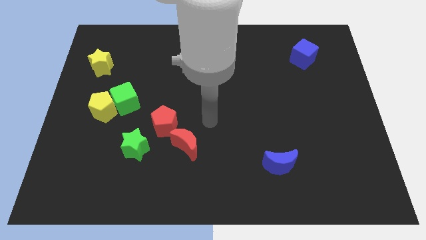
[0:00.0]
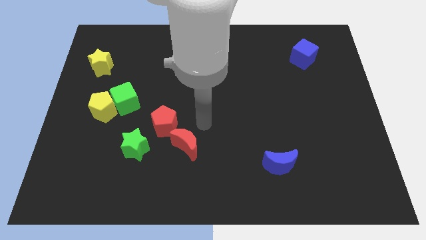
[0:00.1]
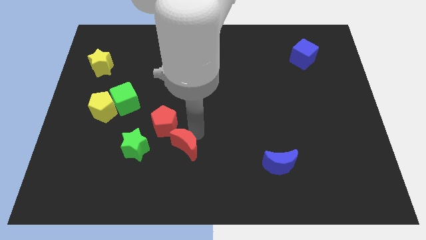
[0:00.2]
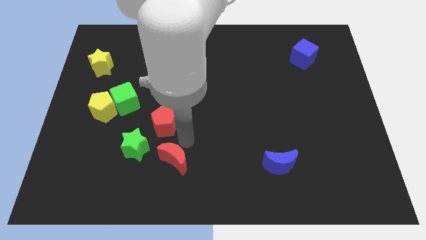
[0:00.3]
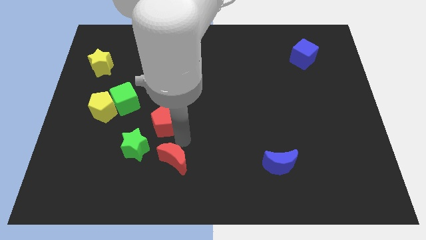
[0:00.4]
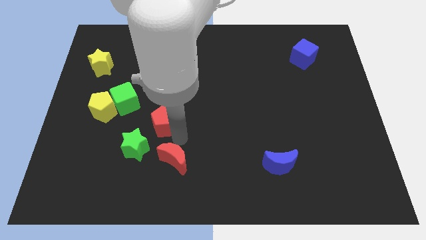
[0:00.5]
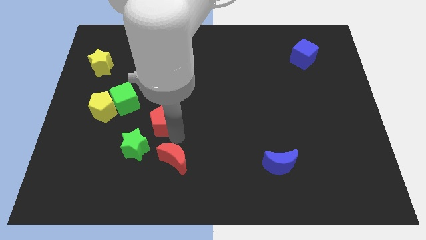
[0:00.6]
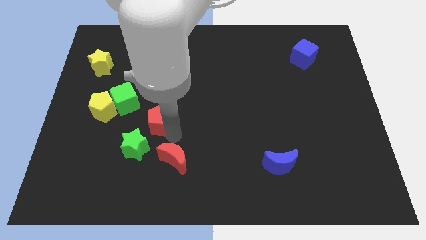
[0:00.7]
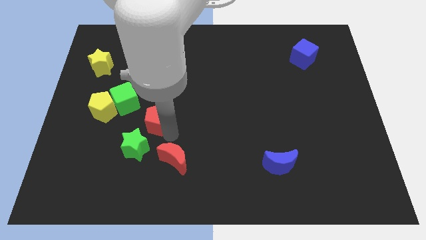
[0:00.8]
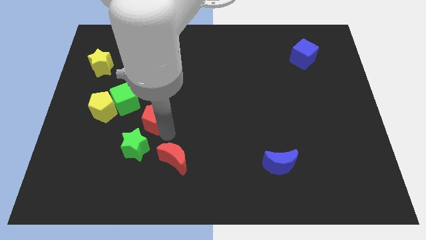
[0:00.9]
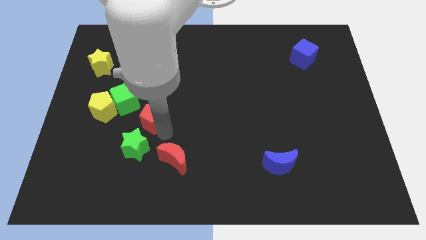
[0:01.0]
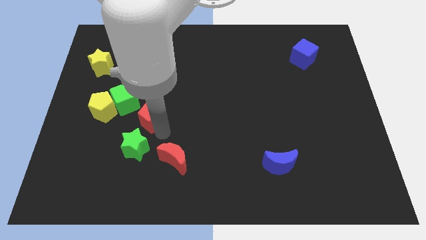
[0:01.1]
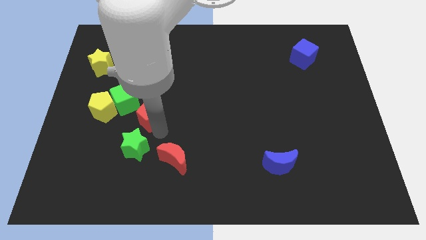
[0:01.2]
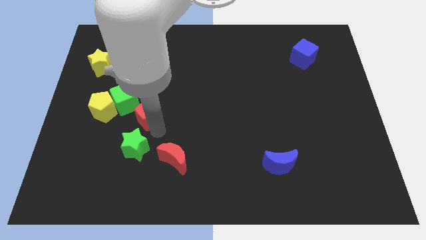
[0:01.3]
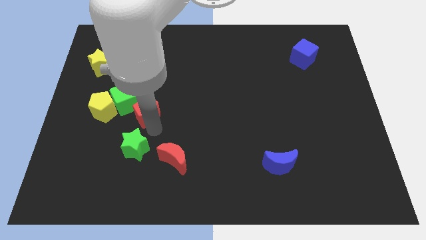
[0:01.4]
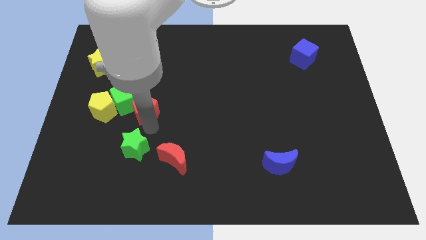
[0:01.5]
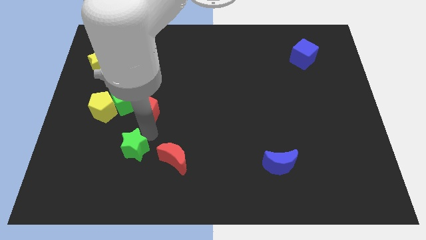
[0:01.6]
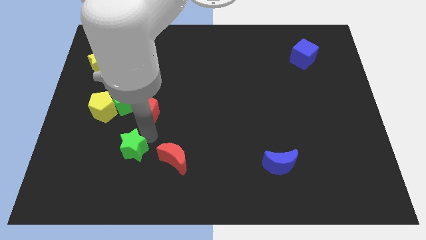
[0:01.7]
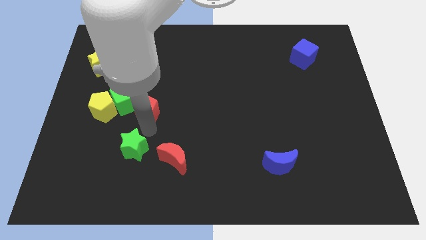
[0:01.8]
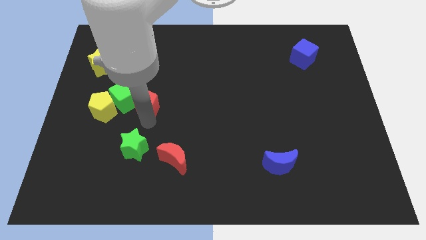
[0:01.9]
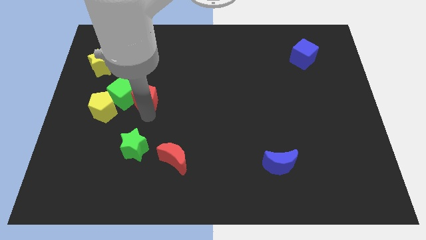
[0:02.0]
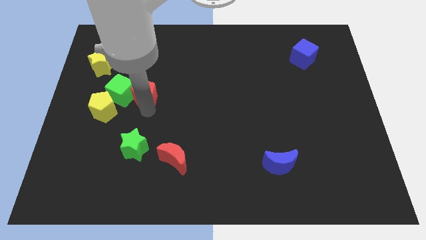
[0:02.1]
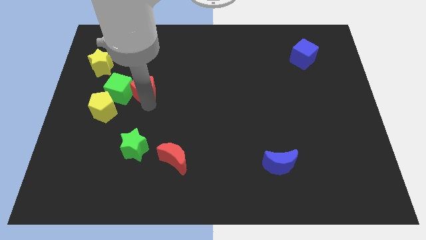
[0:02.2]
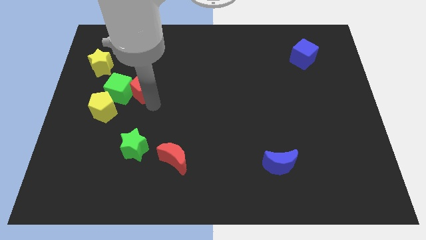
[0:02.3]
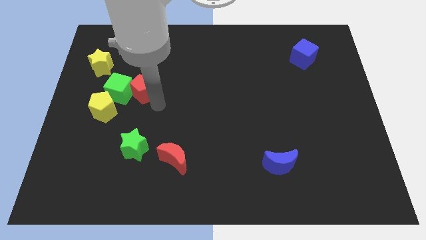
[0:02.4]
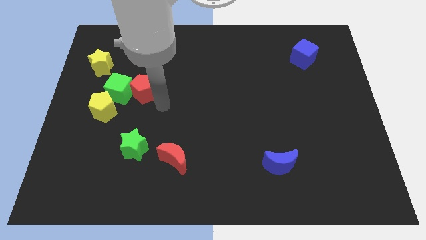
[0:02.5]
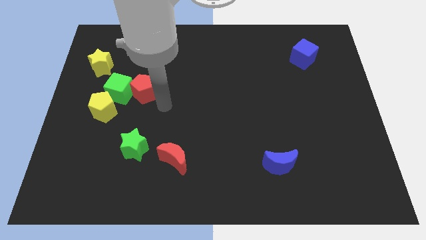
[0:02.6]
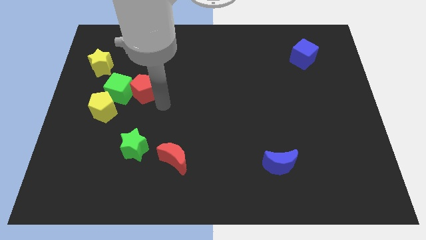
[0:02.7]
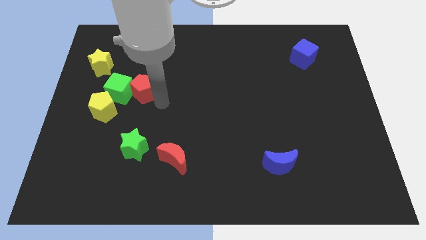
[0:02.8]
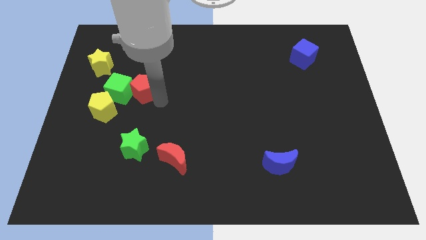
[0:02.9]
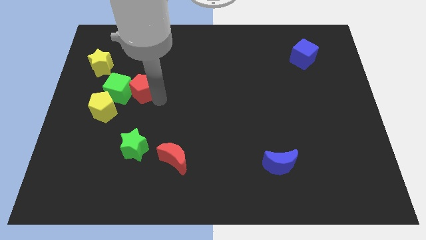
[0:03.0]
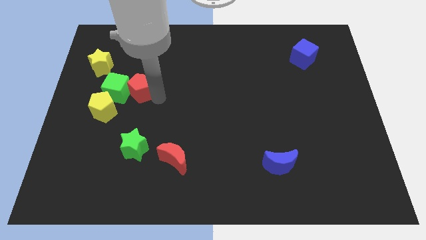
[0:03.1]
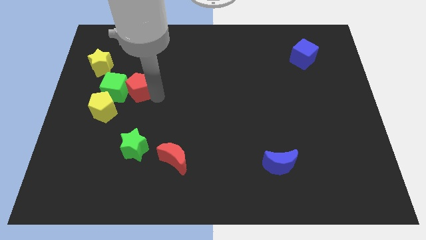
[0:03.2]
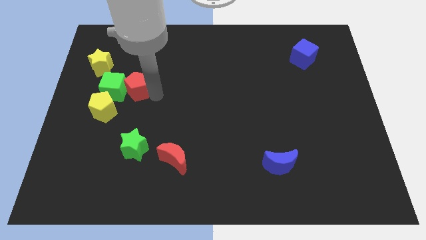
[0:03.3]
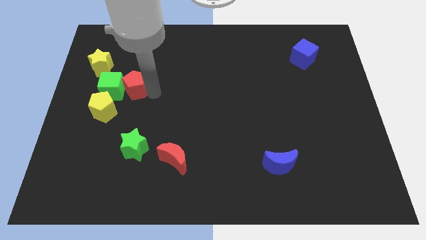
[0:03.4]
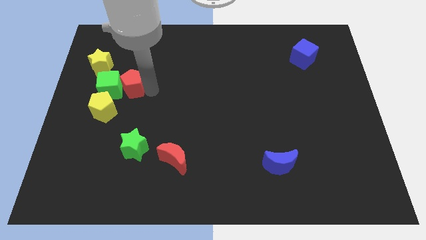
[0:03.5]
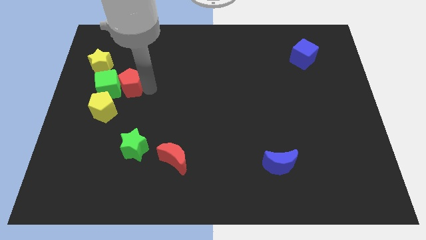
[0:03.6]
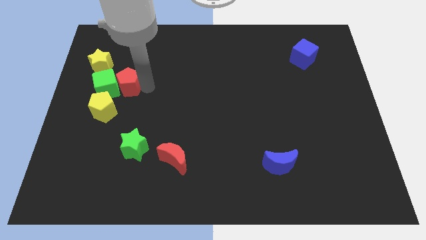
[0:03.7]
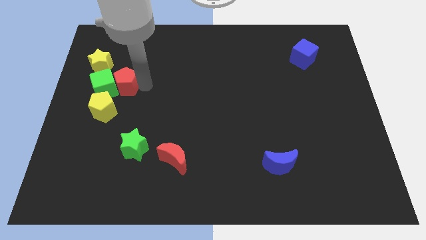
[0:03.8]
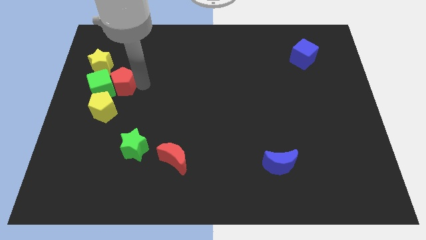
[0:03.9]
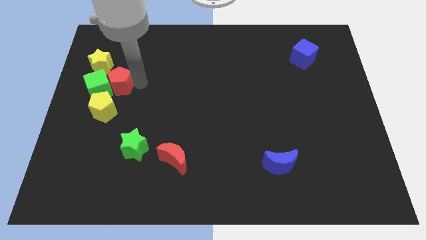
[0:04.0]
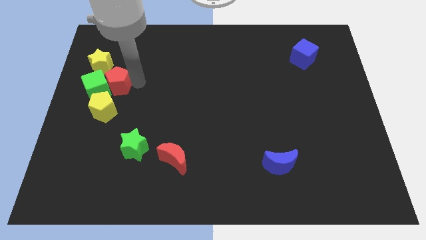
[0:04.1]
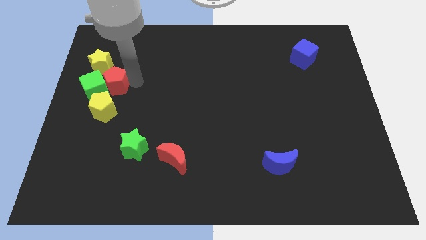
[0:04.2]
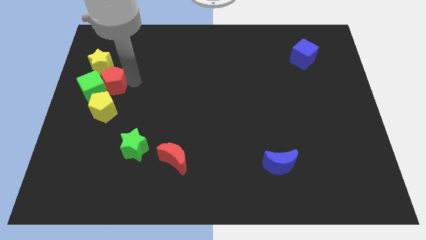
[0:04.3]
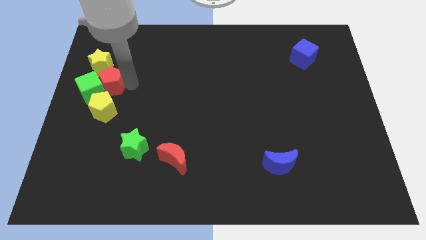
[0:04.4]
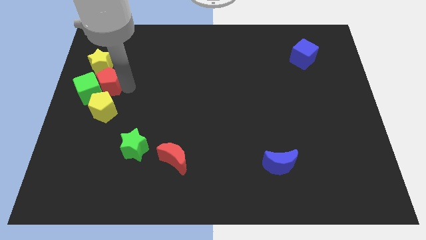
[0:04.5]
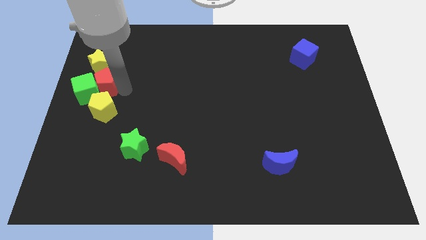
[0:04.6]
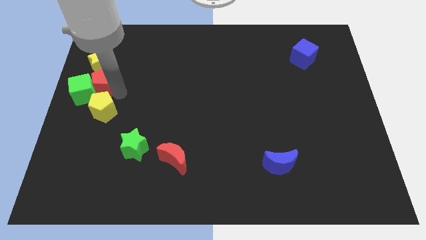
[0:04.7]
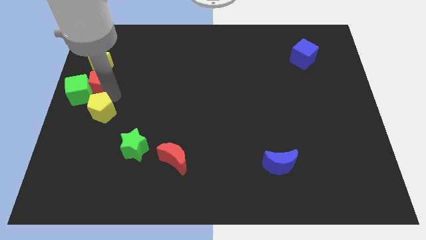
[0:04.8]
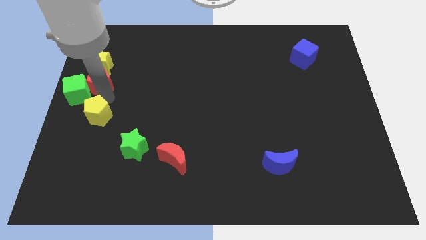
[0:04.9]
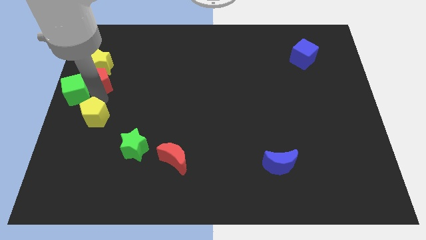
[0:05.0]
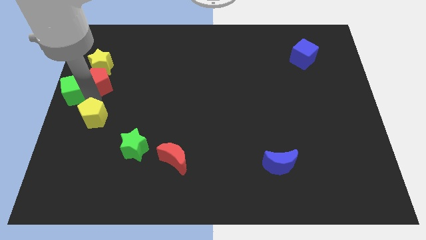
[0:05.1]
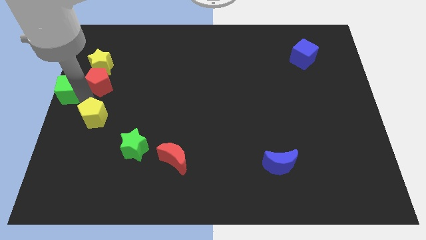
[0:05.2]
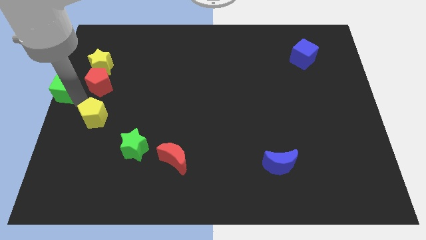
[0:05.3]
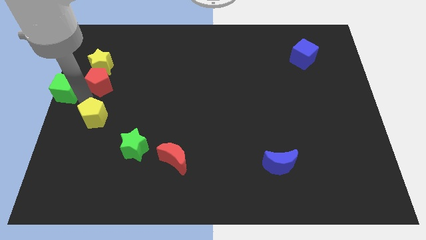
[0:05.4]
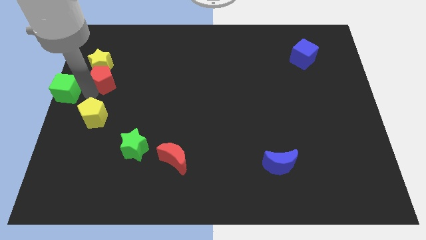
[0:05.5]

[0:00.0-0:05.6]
slide the red pentagon close to the yellow star

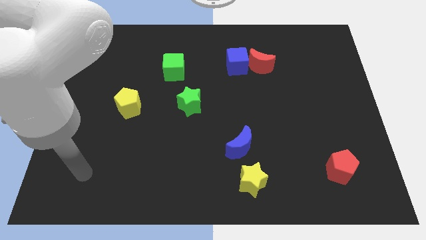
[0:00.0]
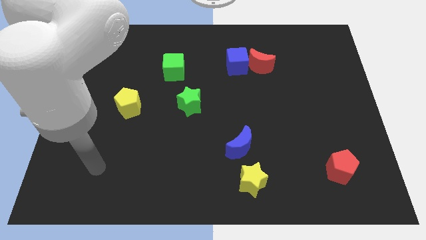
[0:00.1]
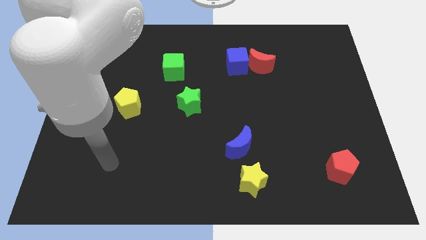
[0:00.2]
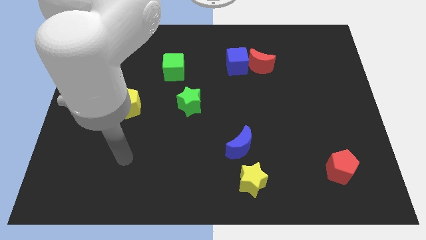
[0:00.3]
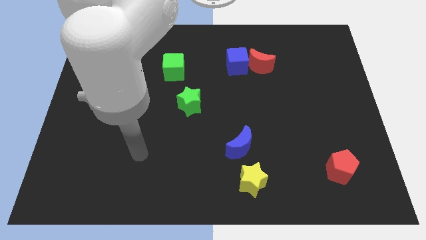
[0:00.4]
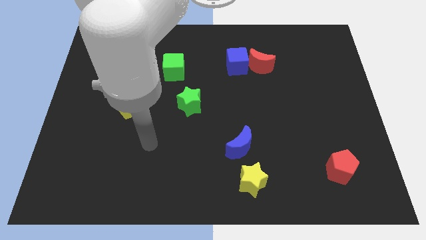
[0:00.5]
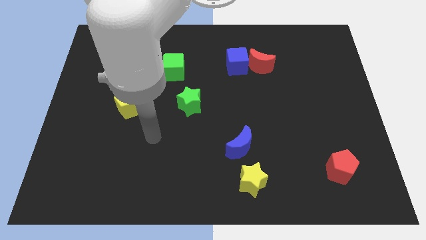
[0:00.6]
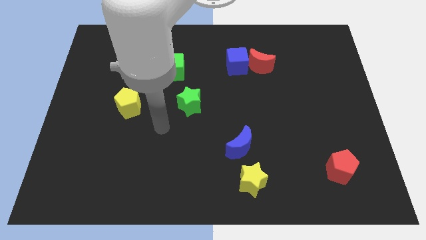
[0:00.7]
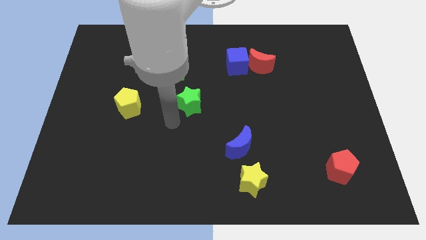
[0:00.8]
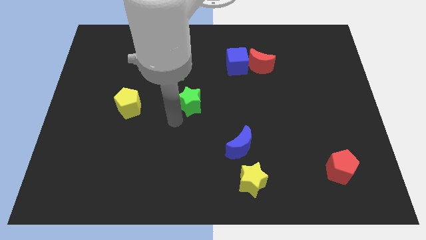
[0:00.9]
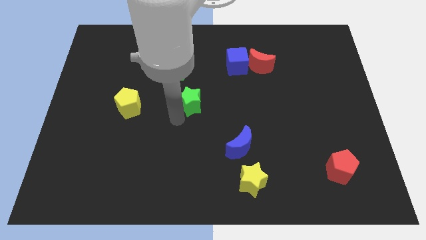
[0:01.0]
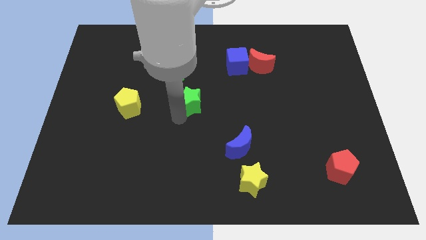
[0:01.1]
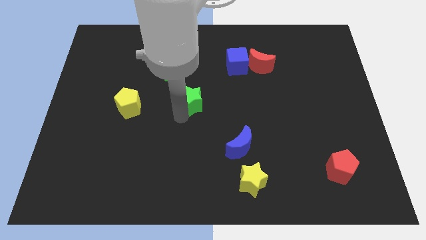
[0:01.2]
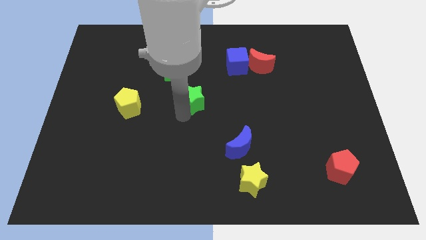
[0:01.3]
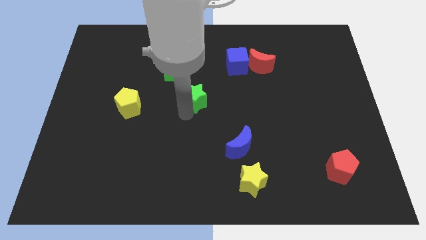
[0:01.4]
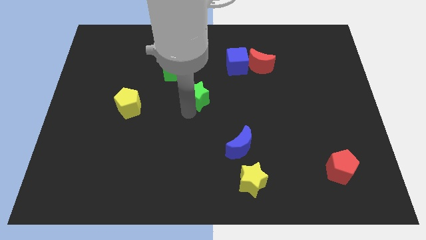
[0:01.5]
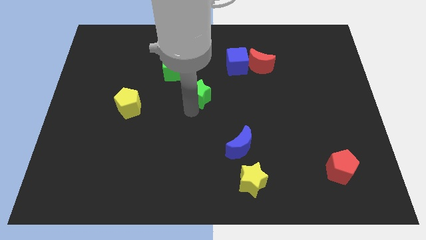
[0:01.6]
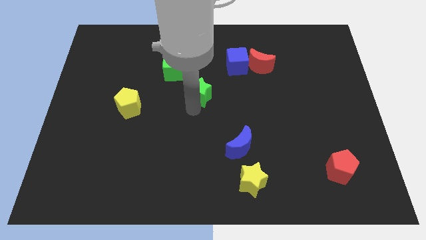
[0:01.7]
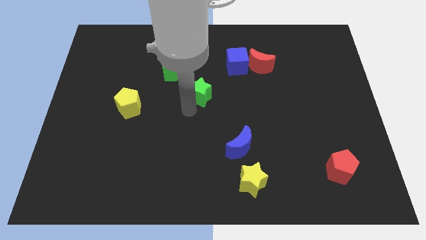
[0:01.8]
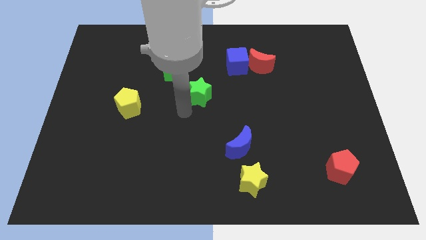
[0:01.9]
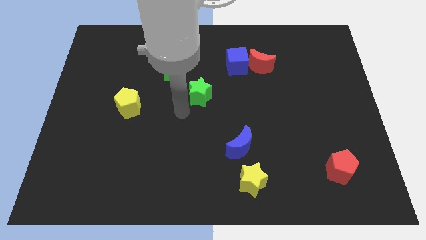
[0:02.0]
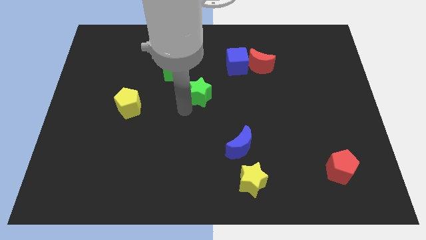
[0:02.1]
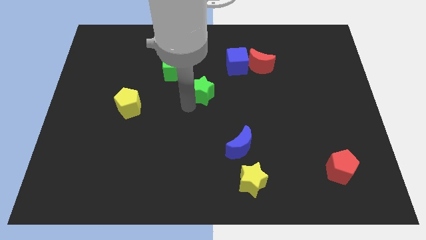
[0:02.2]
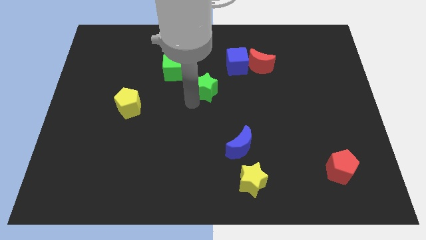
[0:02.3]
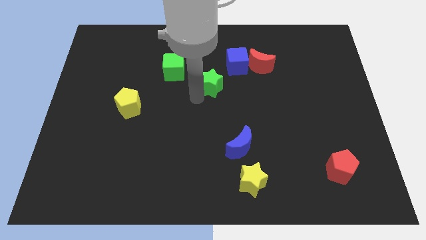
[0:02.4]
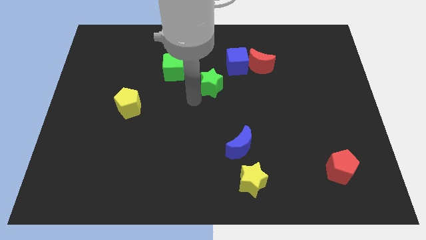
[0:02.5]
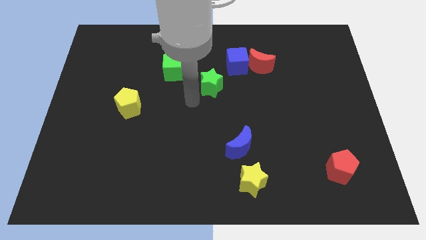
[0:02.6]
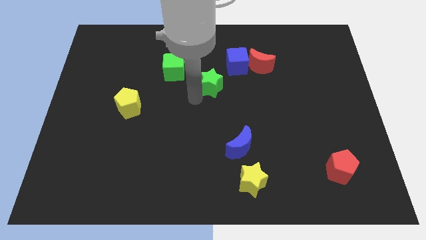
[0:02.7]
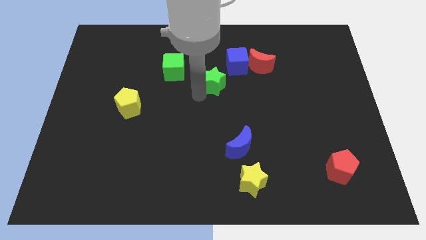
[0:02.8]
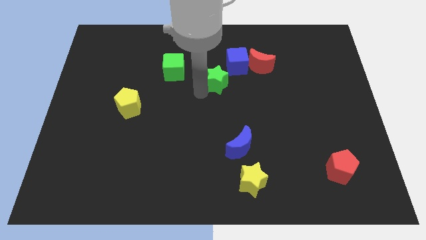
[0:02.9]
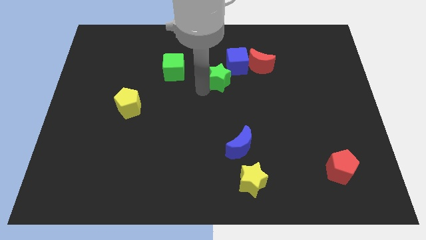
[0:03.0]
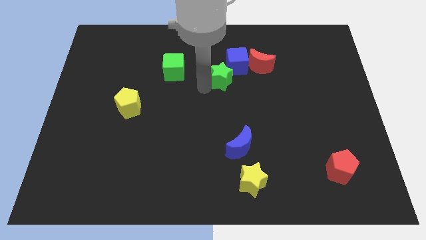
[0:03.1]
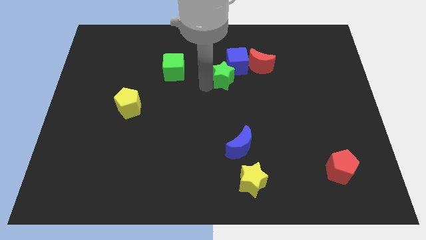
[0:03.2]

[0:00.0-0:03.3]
move the green star close to the blue cube
